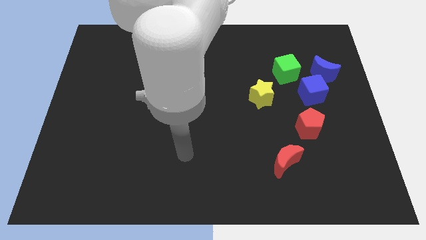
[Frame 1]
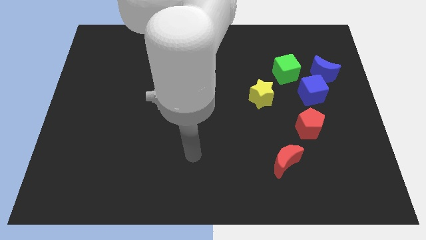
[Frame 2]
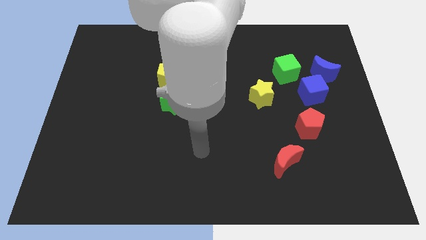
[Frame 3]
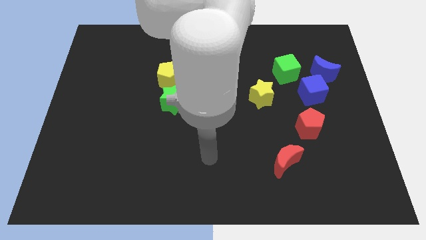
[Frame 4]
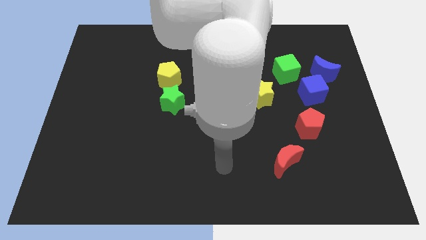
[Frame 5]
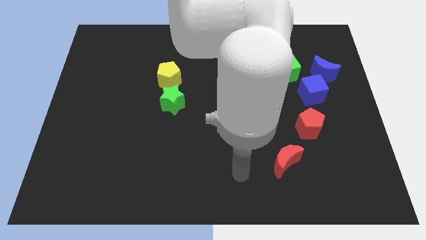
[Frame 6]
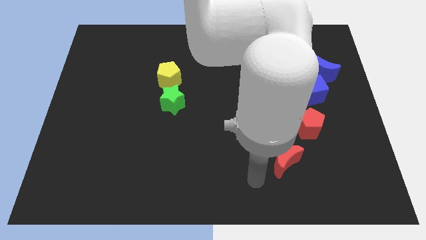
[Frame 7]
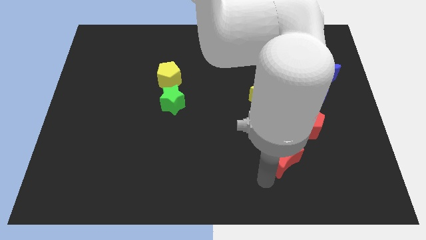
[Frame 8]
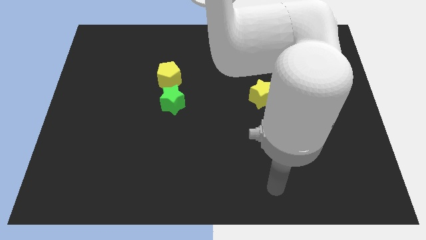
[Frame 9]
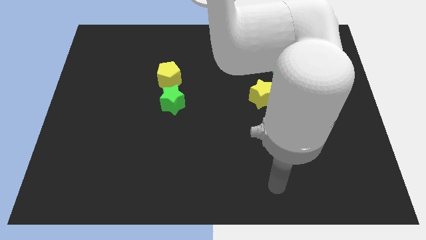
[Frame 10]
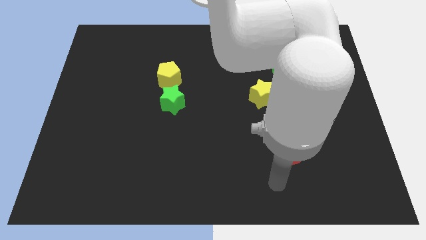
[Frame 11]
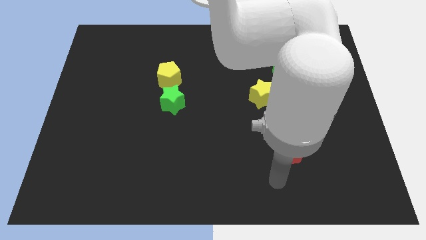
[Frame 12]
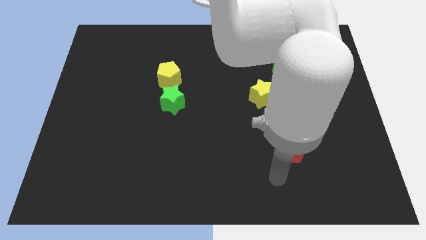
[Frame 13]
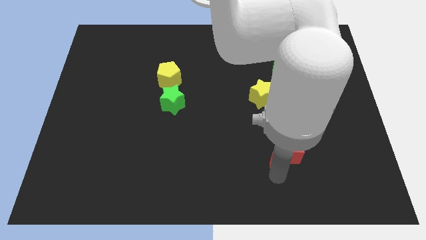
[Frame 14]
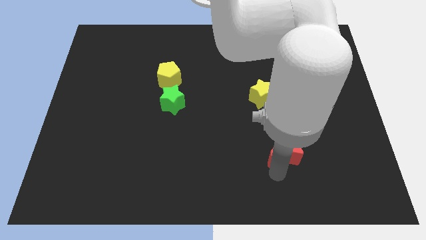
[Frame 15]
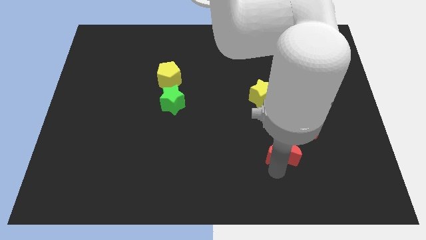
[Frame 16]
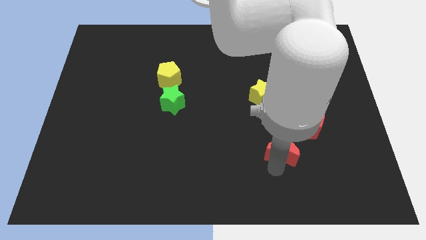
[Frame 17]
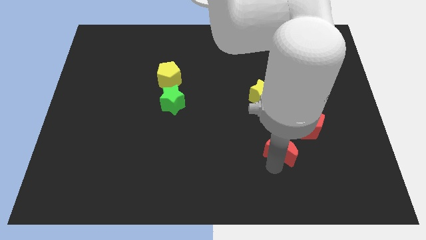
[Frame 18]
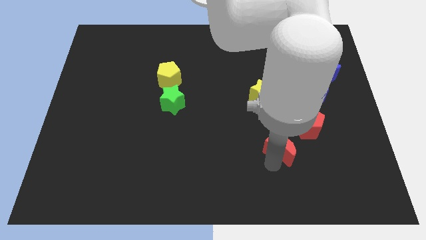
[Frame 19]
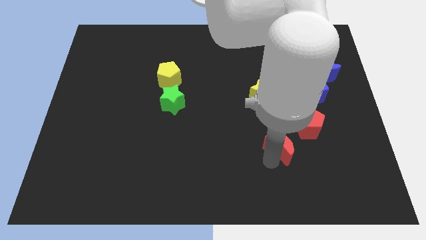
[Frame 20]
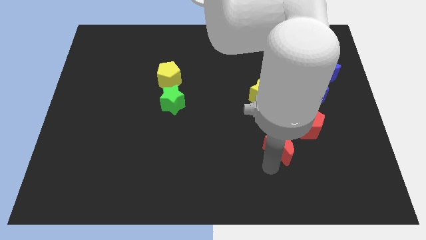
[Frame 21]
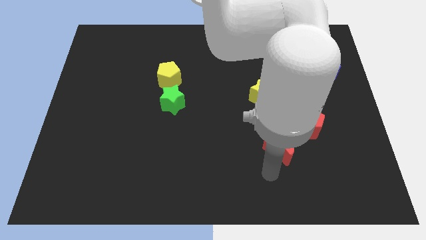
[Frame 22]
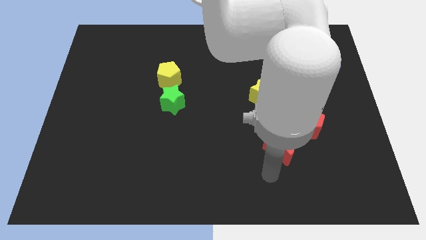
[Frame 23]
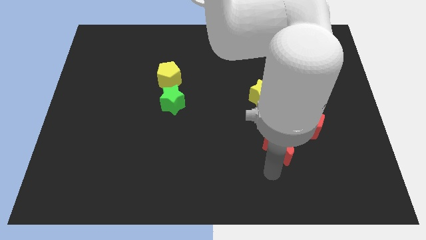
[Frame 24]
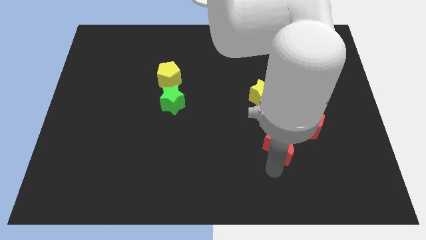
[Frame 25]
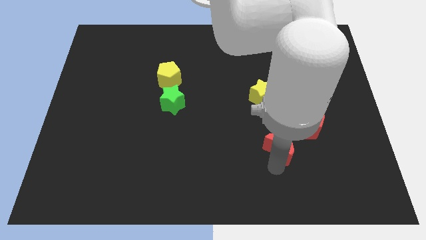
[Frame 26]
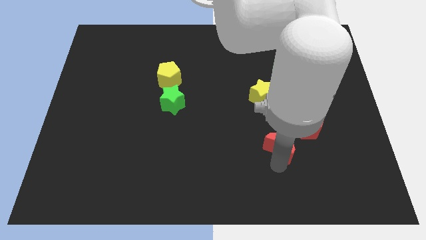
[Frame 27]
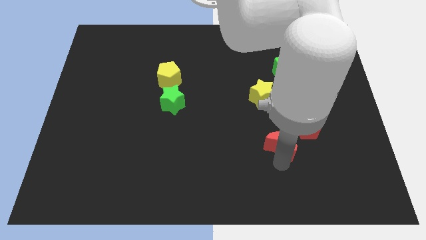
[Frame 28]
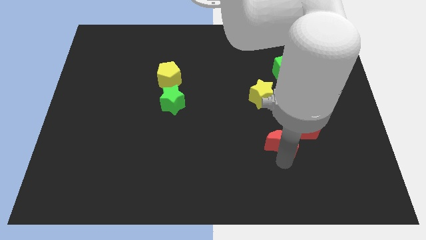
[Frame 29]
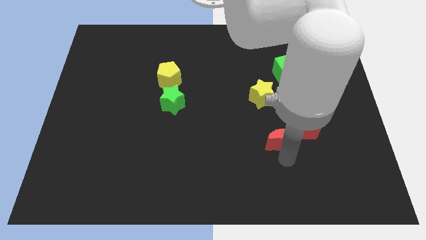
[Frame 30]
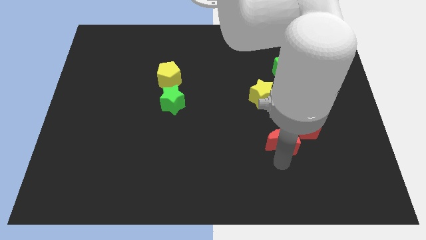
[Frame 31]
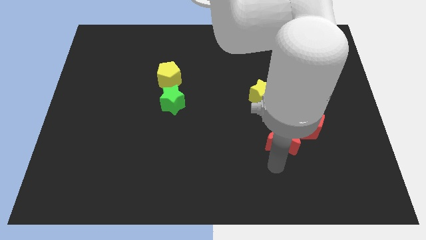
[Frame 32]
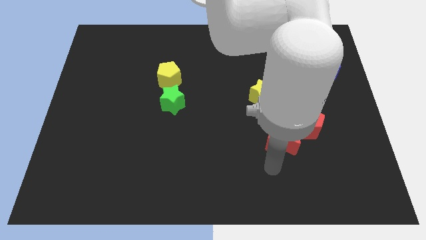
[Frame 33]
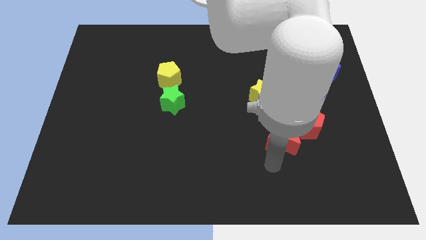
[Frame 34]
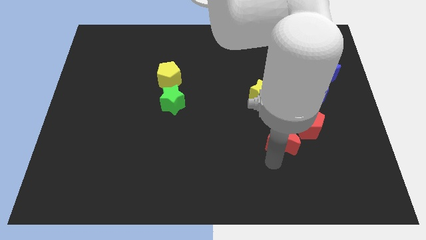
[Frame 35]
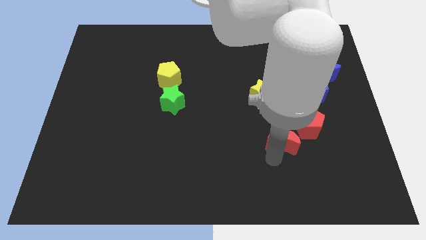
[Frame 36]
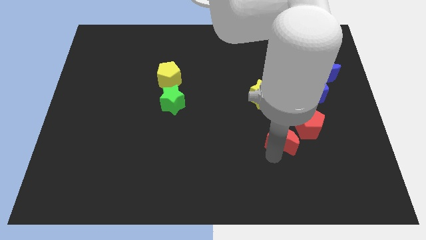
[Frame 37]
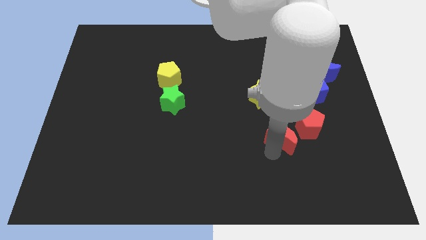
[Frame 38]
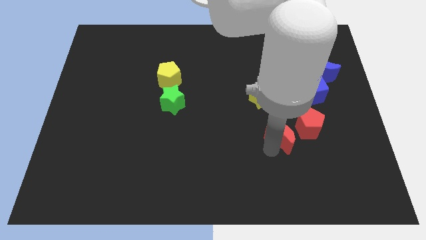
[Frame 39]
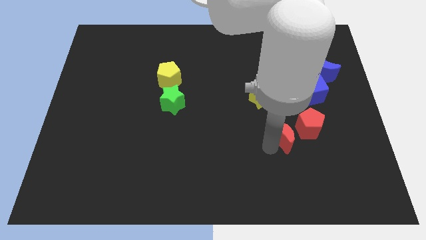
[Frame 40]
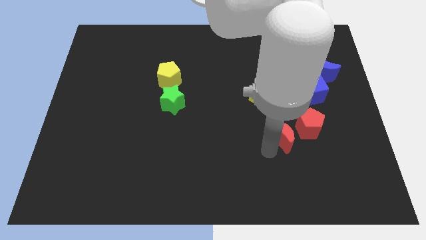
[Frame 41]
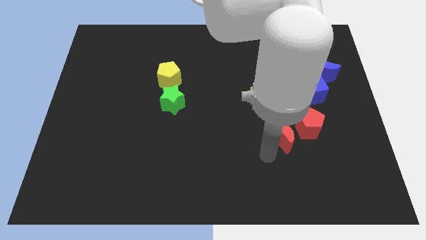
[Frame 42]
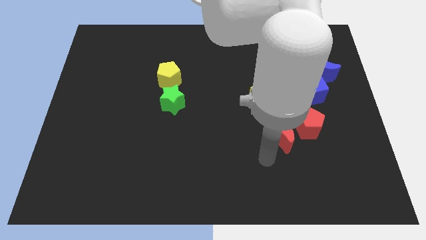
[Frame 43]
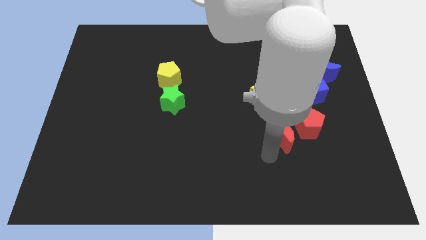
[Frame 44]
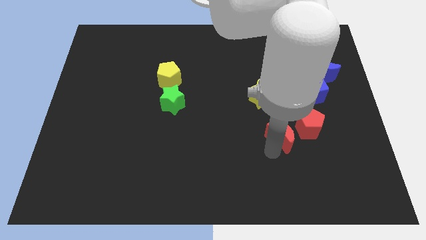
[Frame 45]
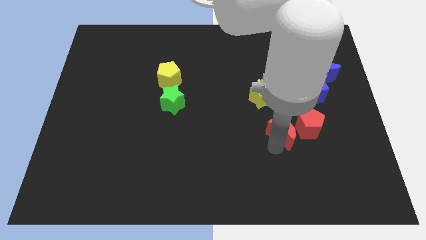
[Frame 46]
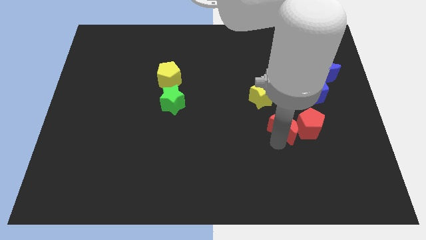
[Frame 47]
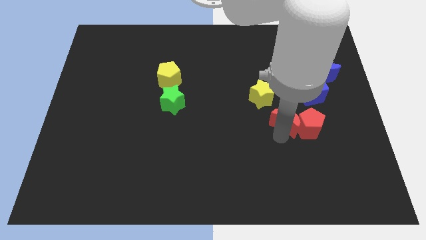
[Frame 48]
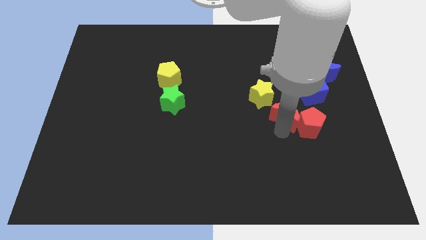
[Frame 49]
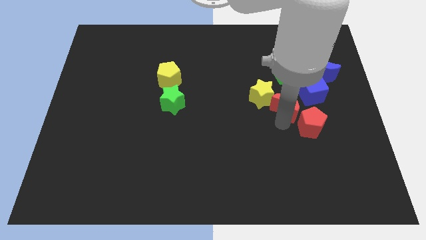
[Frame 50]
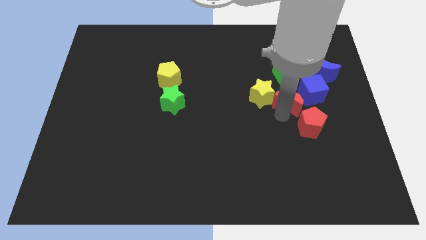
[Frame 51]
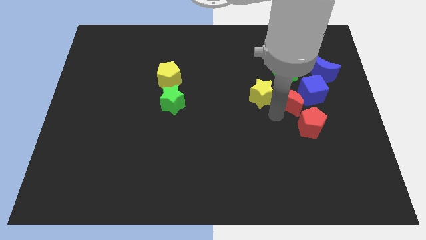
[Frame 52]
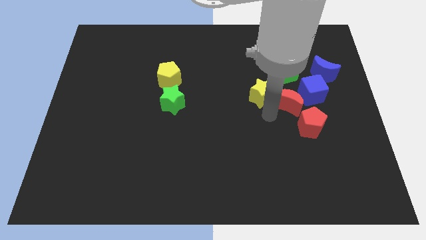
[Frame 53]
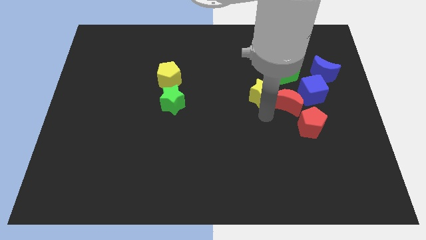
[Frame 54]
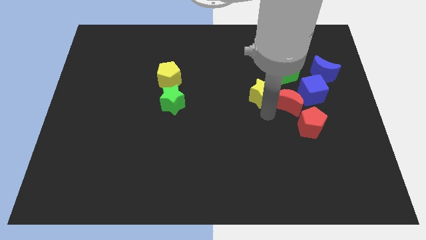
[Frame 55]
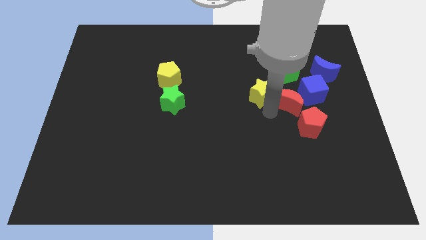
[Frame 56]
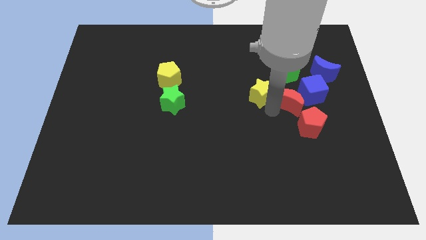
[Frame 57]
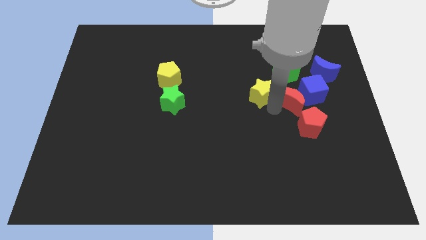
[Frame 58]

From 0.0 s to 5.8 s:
put the red moon towards the blue cube

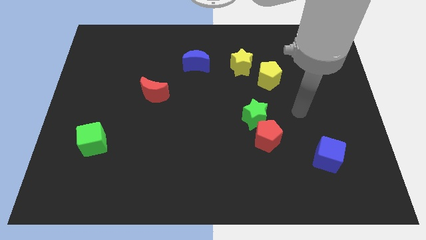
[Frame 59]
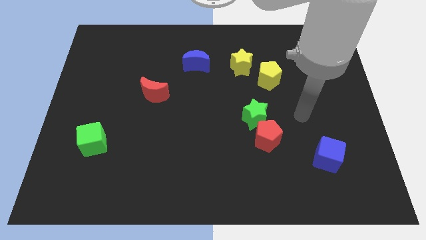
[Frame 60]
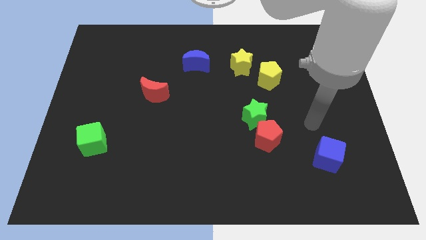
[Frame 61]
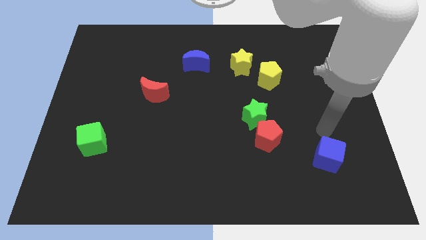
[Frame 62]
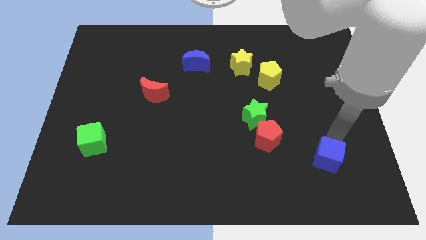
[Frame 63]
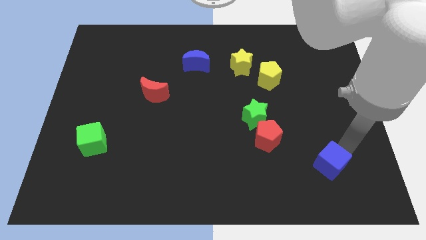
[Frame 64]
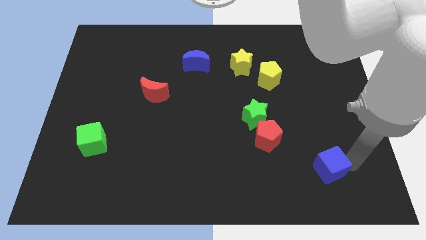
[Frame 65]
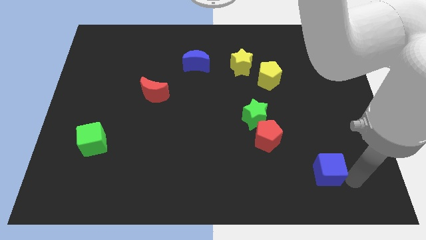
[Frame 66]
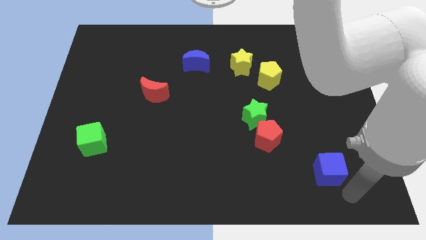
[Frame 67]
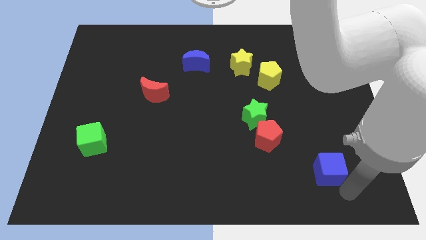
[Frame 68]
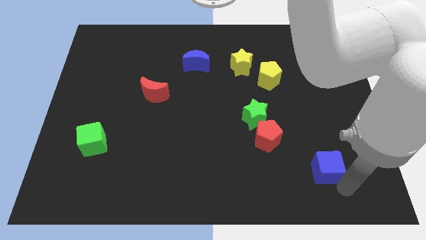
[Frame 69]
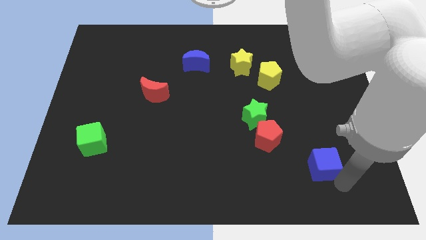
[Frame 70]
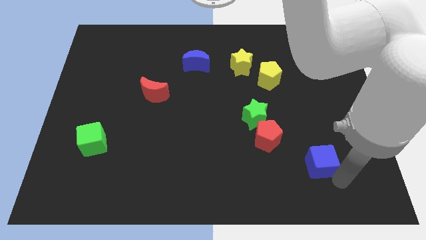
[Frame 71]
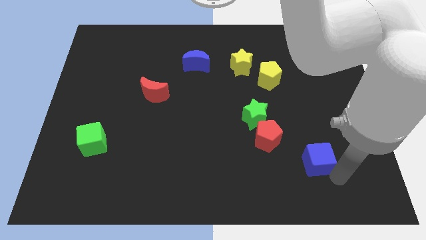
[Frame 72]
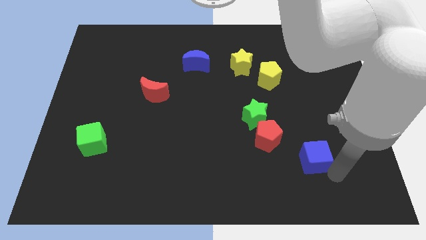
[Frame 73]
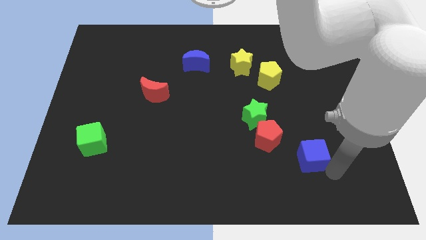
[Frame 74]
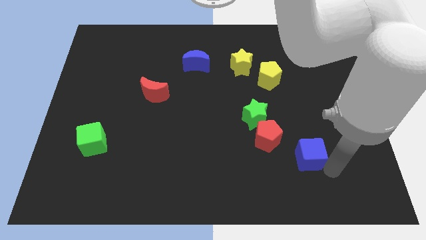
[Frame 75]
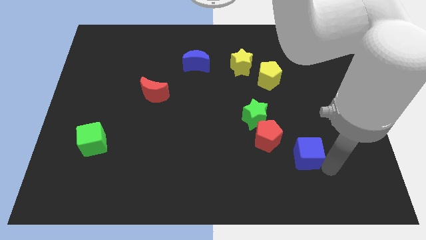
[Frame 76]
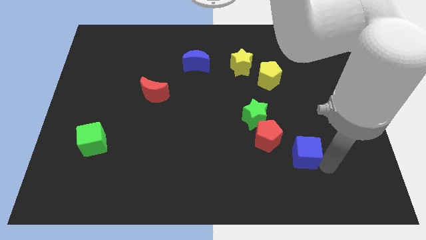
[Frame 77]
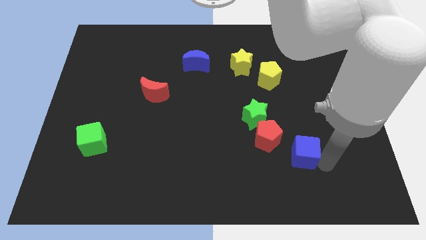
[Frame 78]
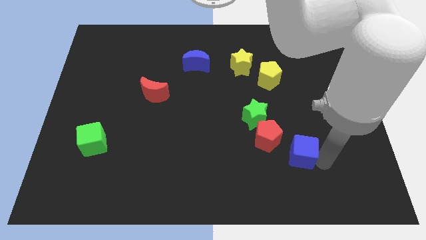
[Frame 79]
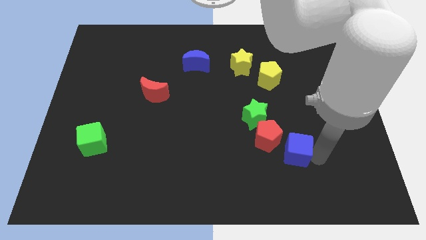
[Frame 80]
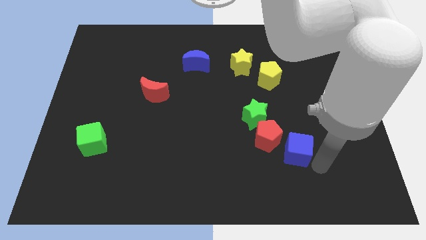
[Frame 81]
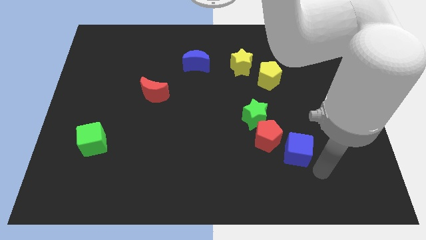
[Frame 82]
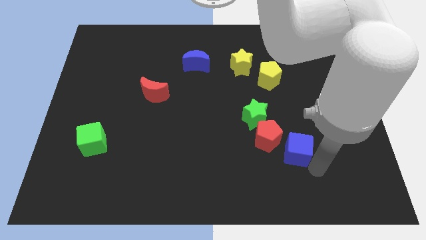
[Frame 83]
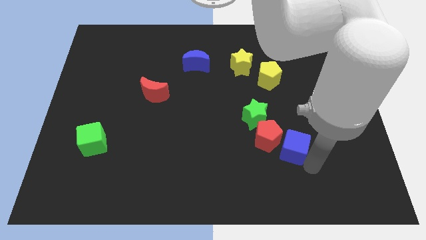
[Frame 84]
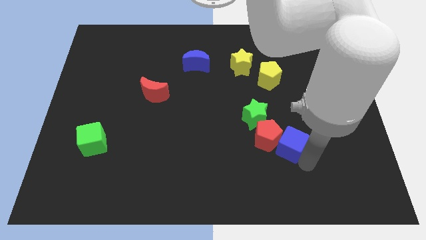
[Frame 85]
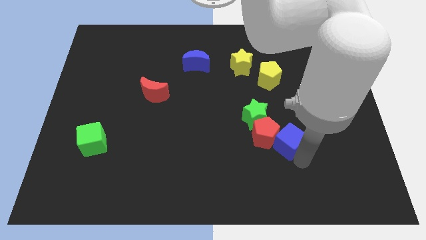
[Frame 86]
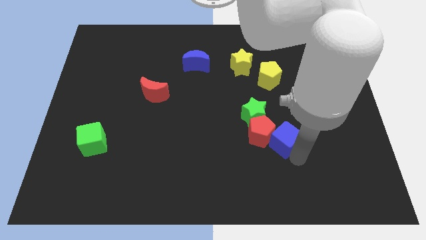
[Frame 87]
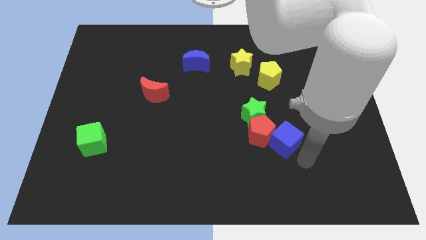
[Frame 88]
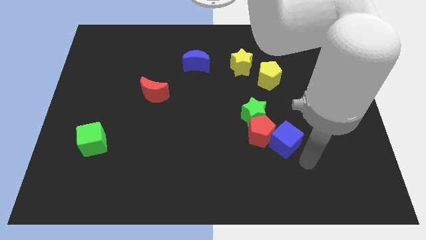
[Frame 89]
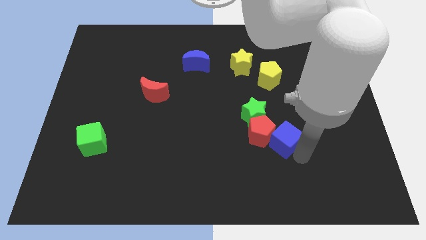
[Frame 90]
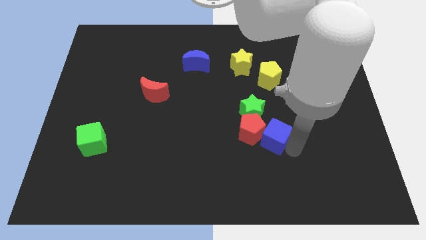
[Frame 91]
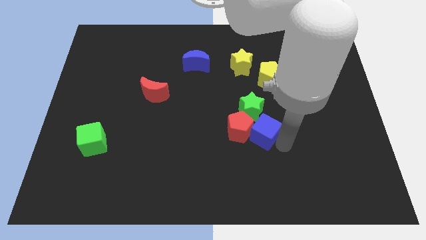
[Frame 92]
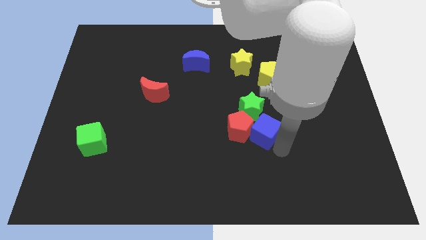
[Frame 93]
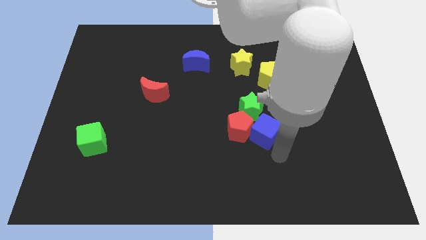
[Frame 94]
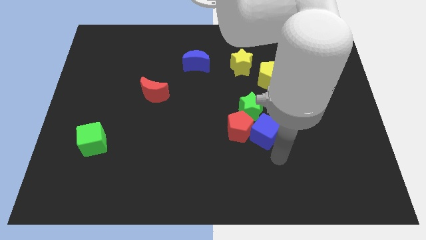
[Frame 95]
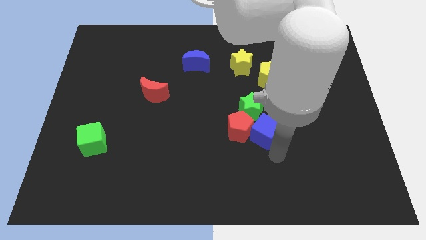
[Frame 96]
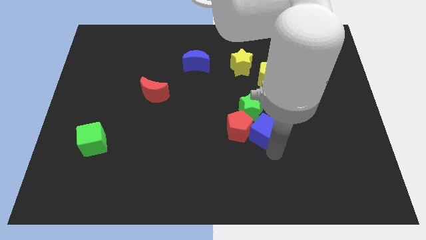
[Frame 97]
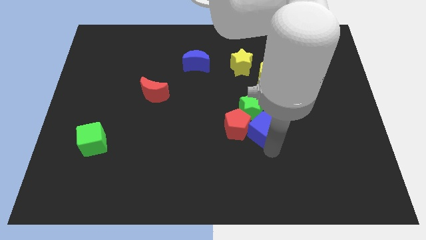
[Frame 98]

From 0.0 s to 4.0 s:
push the blue cube towards the green star
